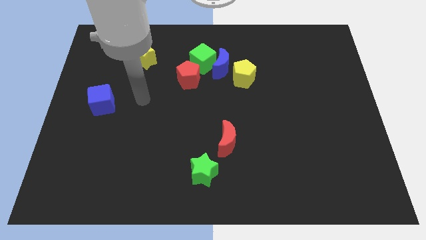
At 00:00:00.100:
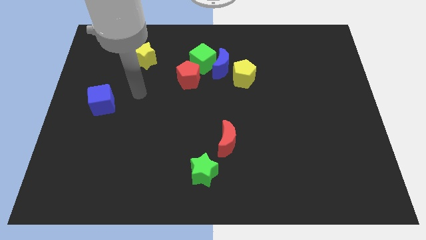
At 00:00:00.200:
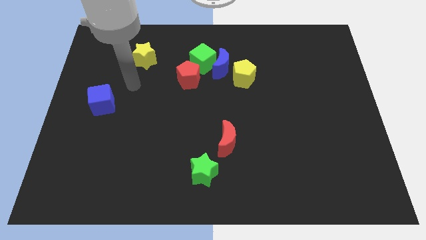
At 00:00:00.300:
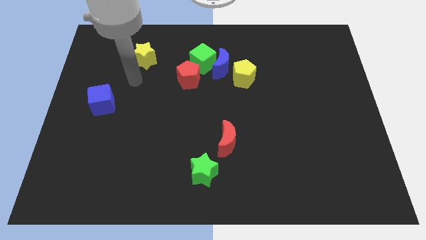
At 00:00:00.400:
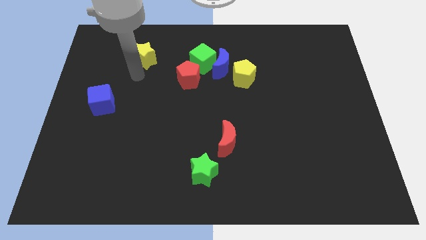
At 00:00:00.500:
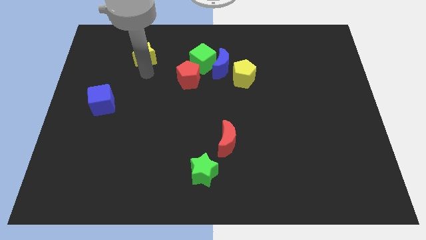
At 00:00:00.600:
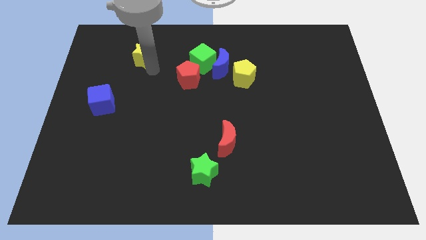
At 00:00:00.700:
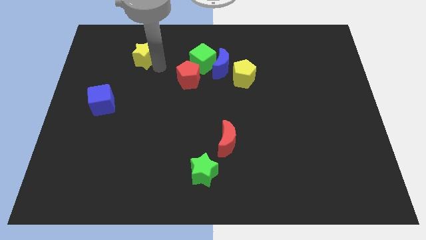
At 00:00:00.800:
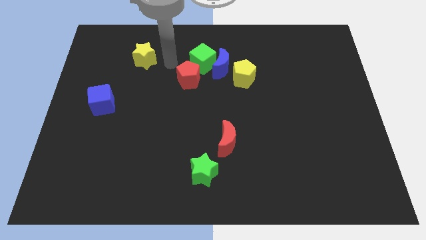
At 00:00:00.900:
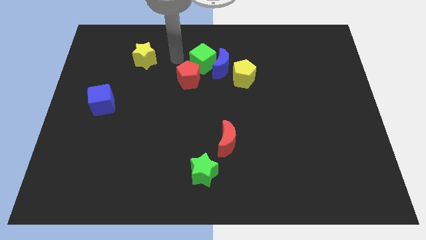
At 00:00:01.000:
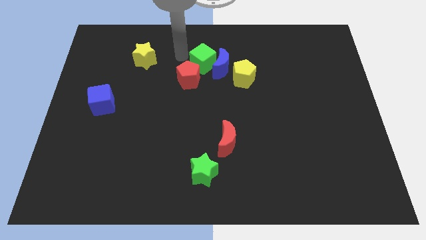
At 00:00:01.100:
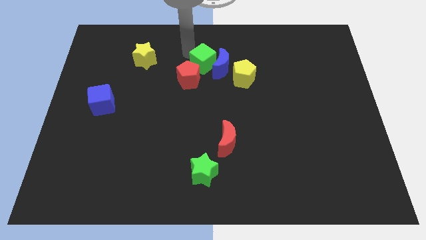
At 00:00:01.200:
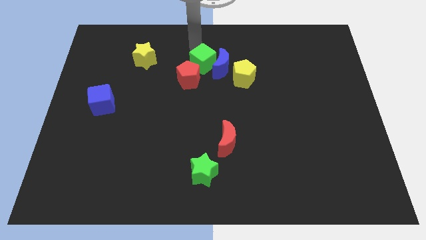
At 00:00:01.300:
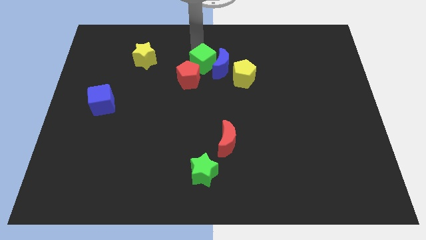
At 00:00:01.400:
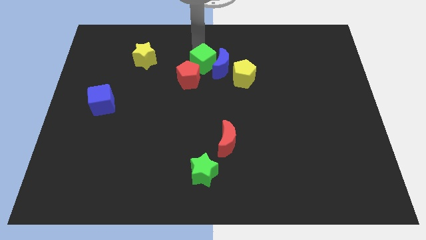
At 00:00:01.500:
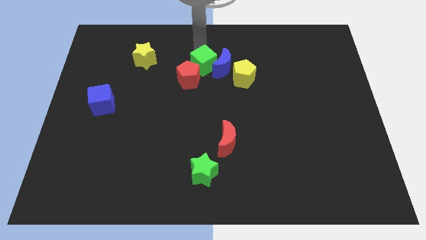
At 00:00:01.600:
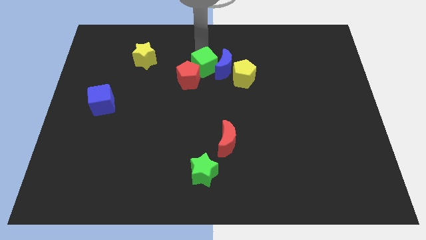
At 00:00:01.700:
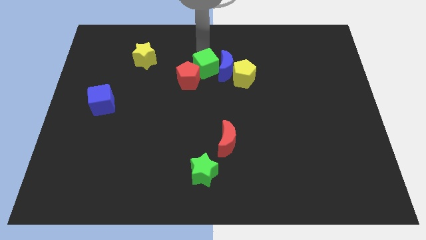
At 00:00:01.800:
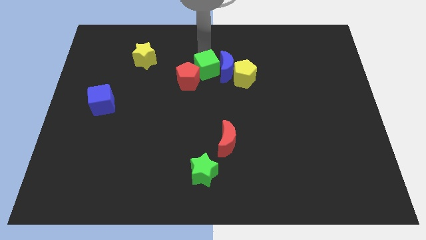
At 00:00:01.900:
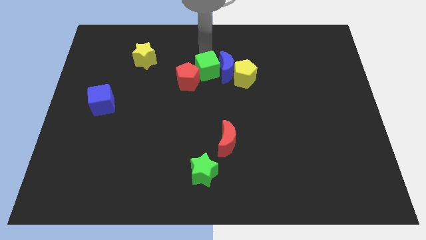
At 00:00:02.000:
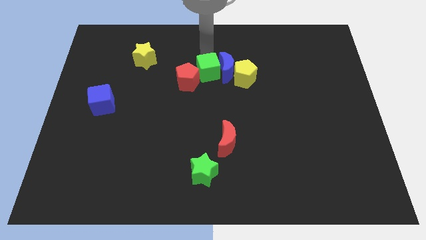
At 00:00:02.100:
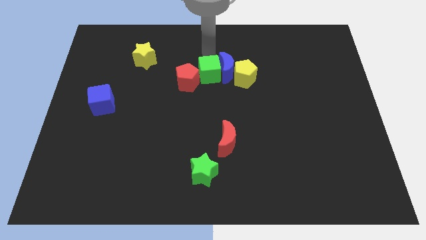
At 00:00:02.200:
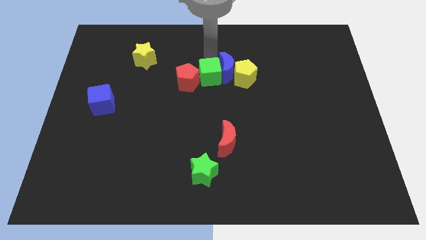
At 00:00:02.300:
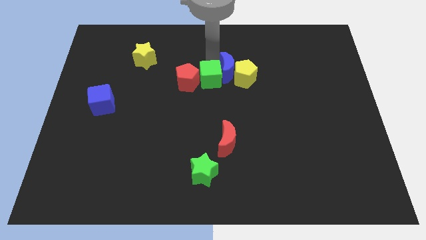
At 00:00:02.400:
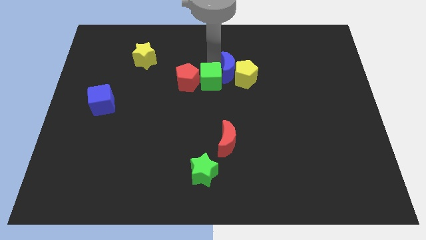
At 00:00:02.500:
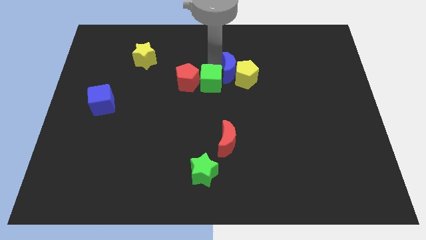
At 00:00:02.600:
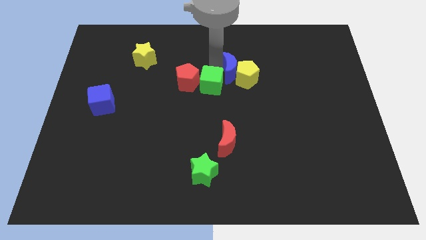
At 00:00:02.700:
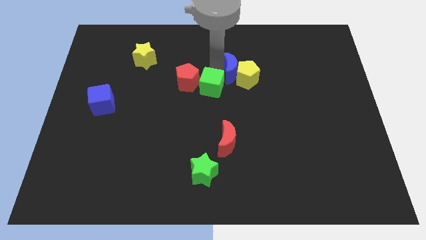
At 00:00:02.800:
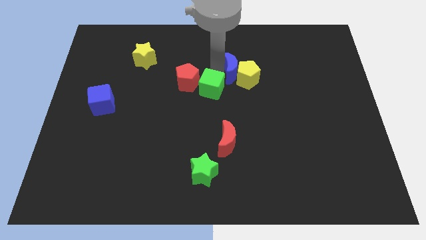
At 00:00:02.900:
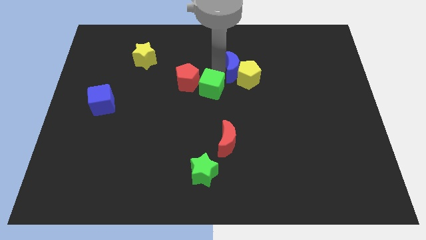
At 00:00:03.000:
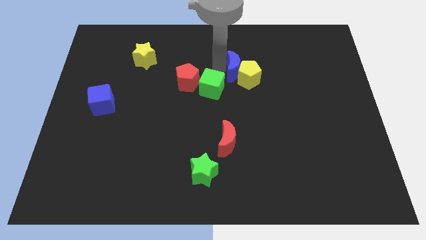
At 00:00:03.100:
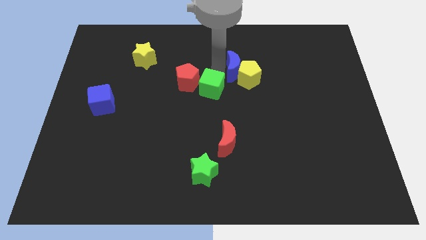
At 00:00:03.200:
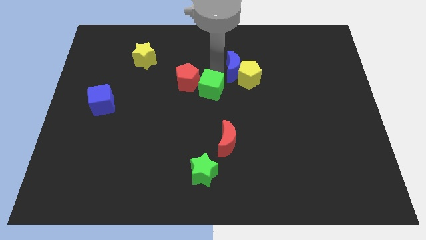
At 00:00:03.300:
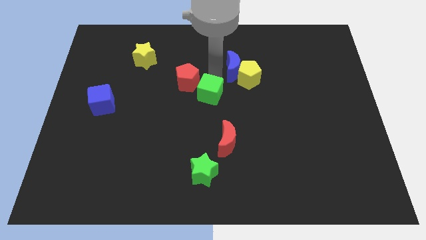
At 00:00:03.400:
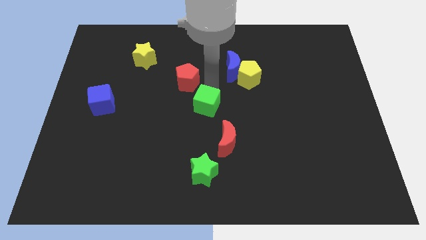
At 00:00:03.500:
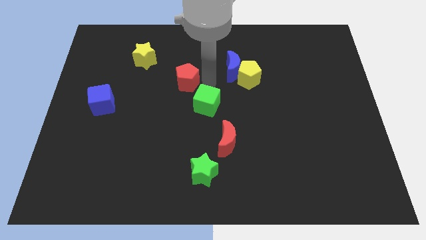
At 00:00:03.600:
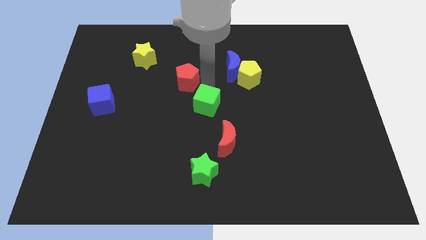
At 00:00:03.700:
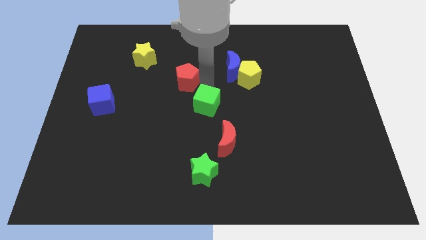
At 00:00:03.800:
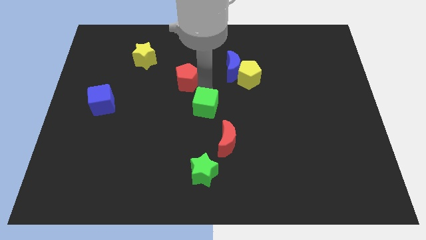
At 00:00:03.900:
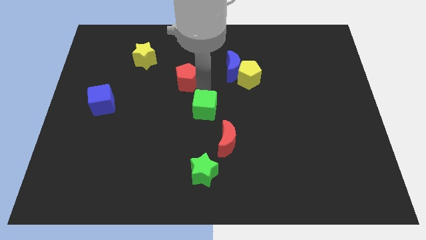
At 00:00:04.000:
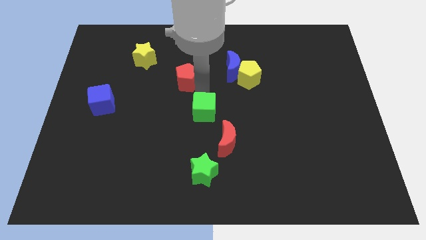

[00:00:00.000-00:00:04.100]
put the green cube to the top side of the green star

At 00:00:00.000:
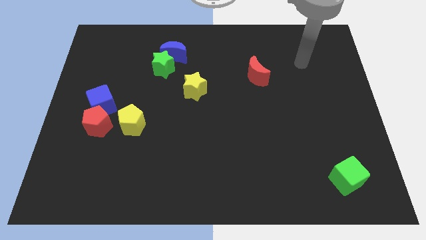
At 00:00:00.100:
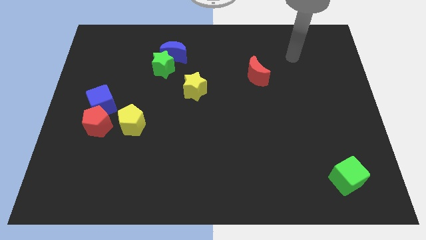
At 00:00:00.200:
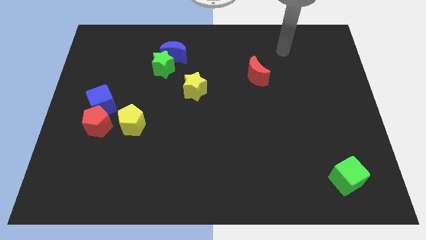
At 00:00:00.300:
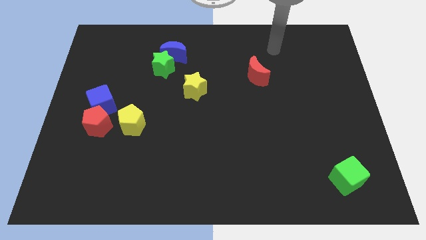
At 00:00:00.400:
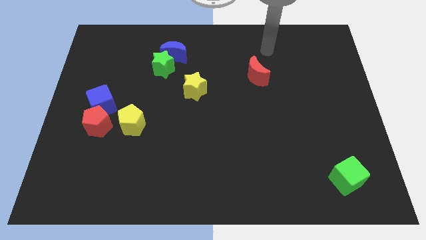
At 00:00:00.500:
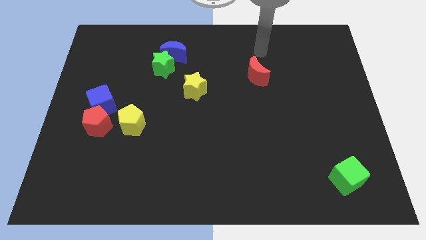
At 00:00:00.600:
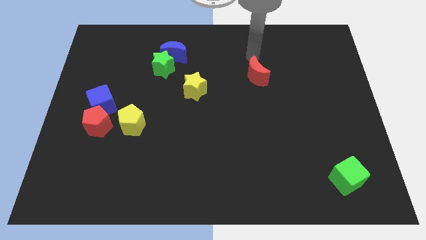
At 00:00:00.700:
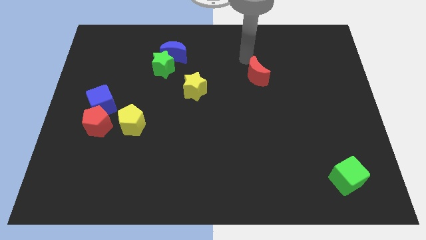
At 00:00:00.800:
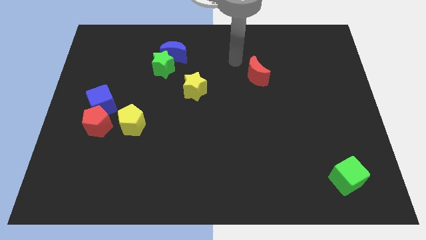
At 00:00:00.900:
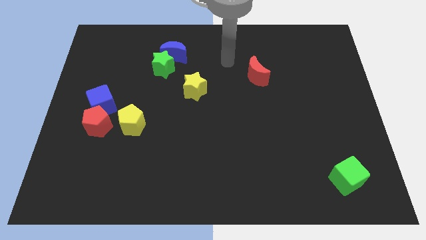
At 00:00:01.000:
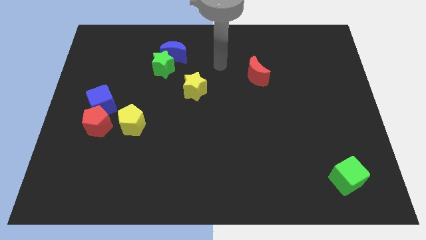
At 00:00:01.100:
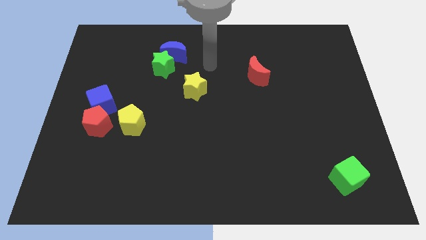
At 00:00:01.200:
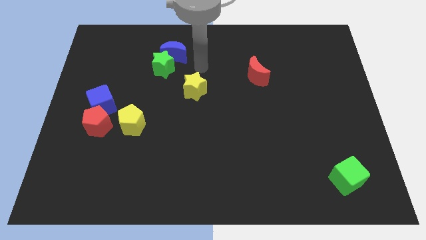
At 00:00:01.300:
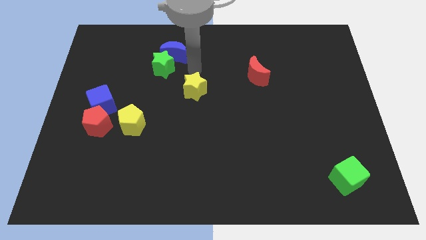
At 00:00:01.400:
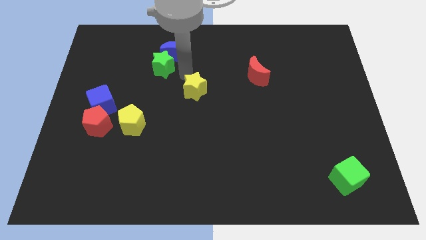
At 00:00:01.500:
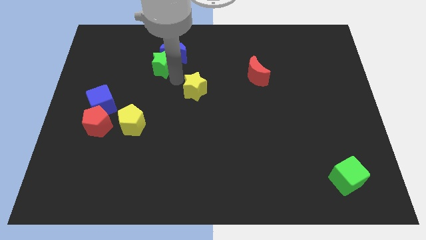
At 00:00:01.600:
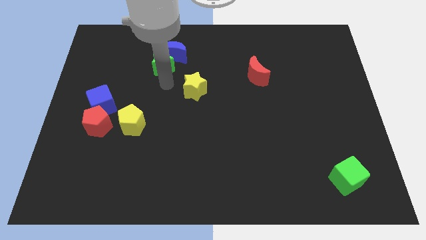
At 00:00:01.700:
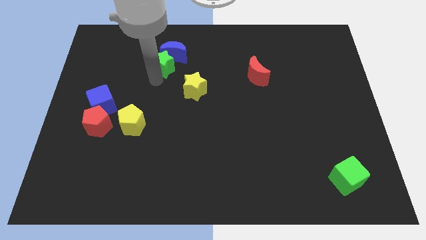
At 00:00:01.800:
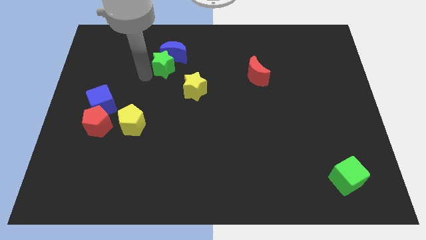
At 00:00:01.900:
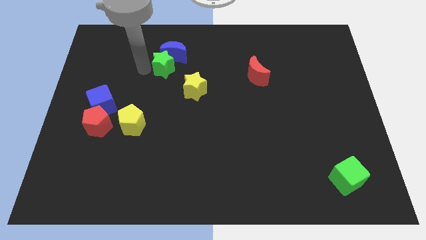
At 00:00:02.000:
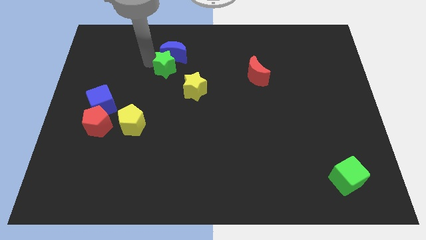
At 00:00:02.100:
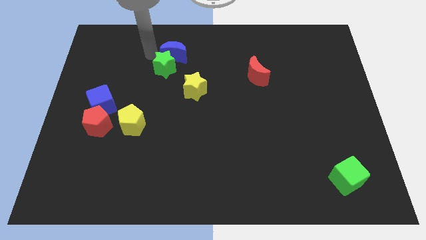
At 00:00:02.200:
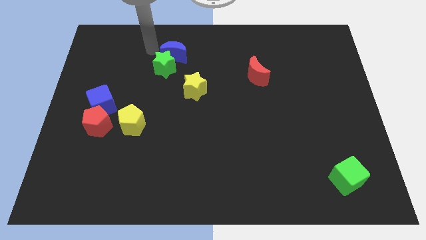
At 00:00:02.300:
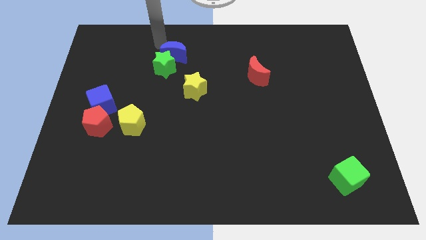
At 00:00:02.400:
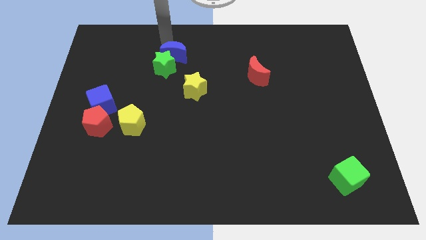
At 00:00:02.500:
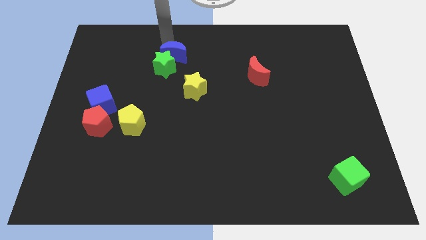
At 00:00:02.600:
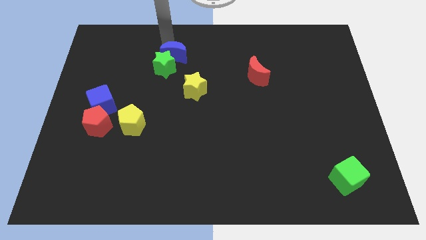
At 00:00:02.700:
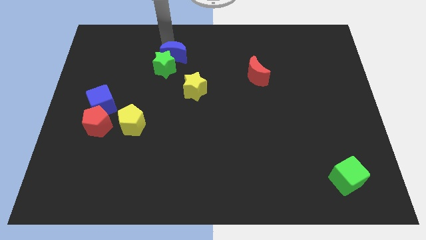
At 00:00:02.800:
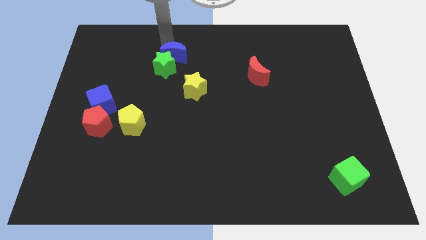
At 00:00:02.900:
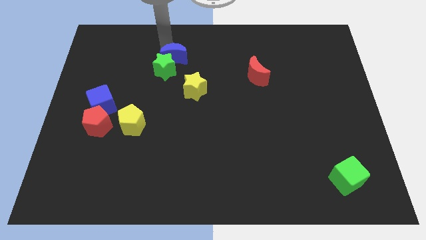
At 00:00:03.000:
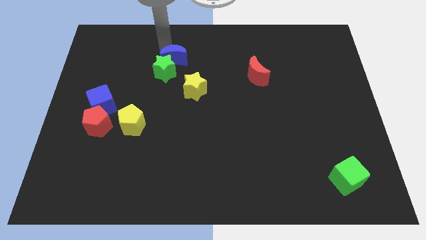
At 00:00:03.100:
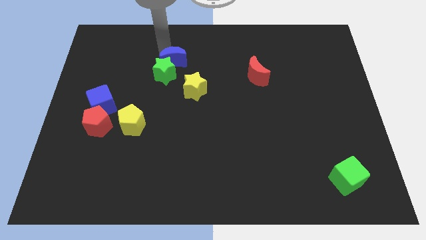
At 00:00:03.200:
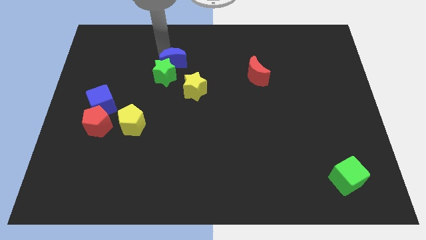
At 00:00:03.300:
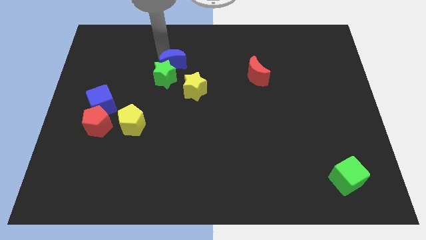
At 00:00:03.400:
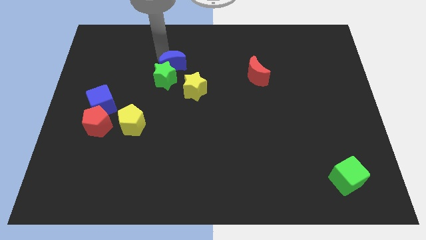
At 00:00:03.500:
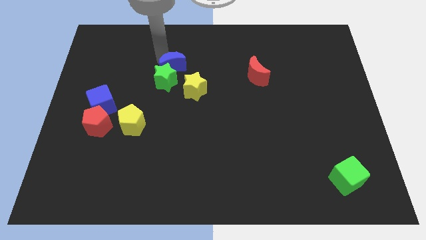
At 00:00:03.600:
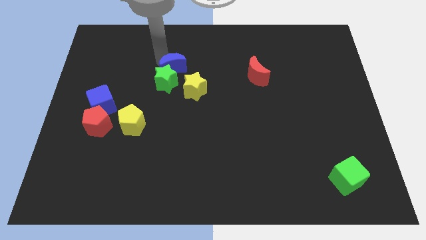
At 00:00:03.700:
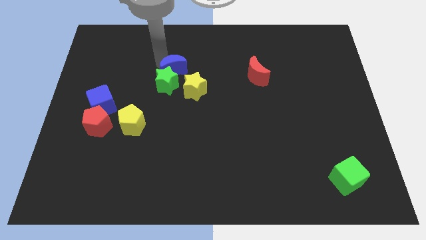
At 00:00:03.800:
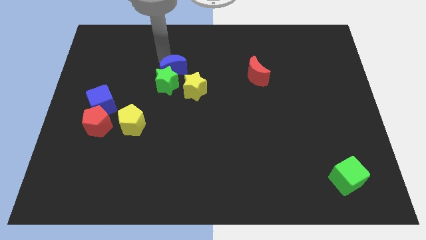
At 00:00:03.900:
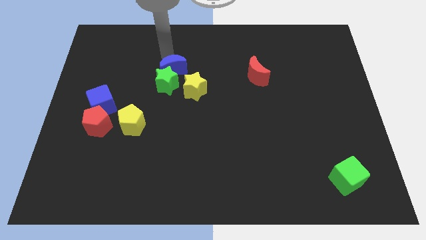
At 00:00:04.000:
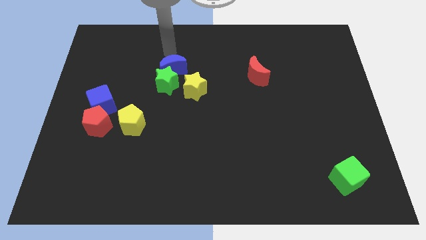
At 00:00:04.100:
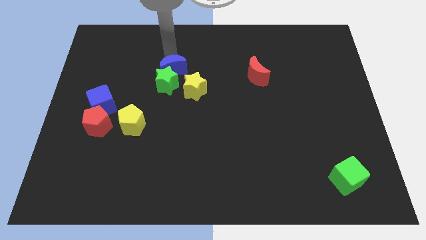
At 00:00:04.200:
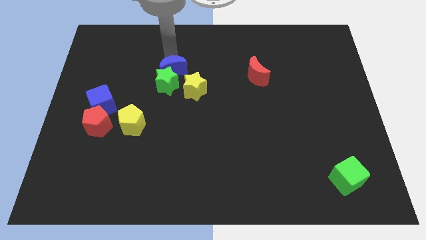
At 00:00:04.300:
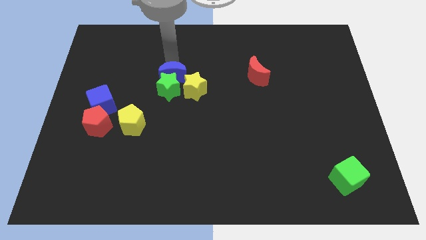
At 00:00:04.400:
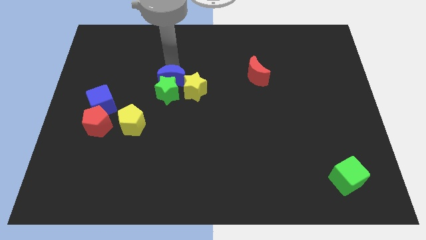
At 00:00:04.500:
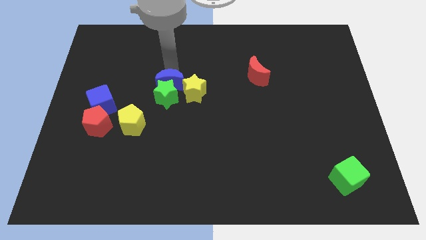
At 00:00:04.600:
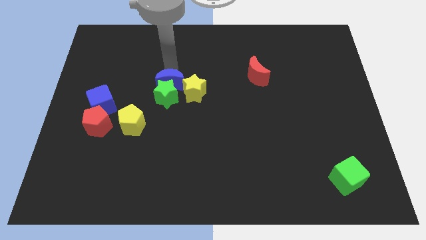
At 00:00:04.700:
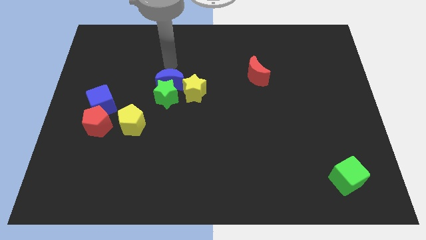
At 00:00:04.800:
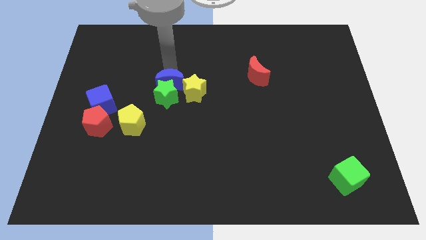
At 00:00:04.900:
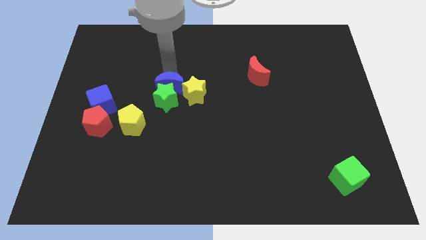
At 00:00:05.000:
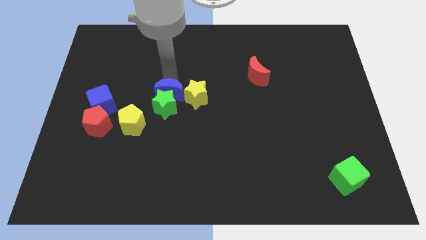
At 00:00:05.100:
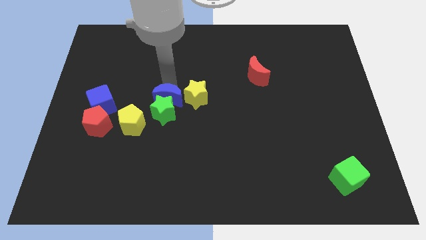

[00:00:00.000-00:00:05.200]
push the blue moon to the bottom left of the yellow star
